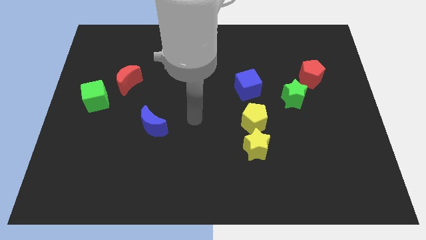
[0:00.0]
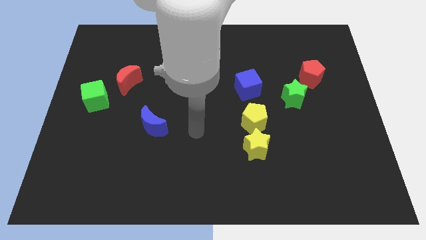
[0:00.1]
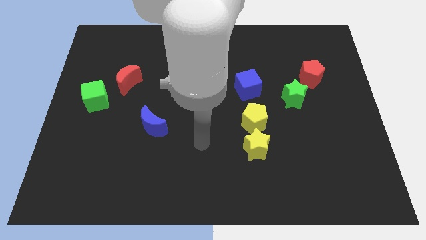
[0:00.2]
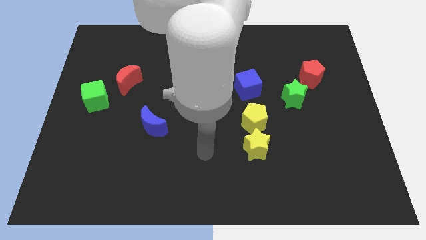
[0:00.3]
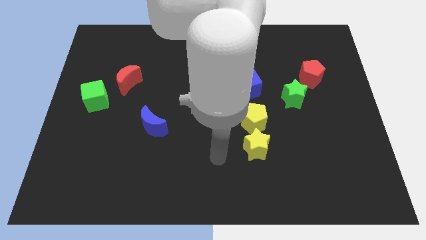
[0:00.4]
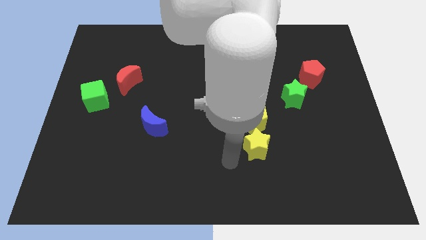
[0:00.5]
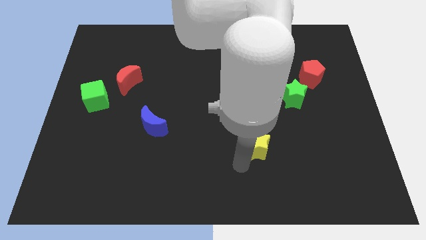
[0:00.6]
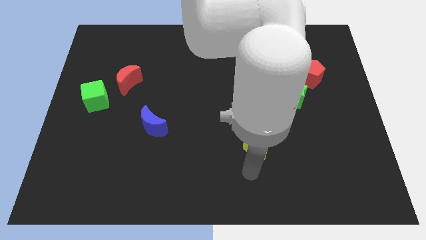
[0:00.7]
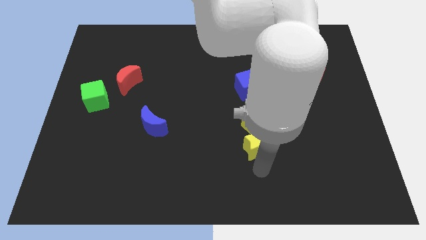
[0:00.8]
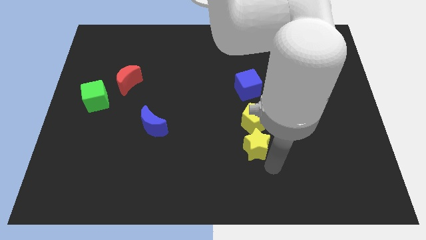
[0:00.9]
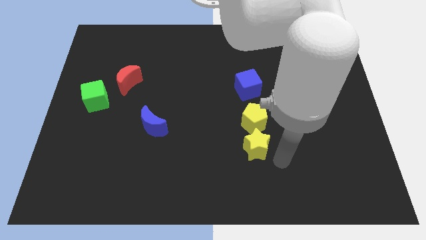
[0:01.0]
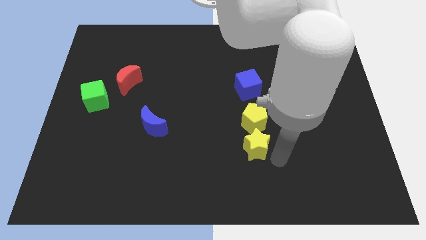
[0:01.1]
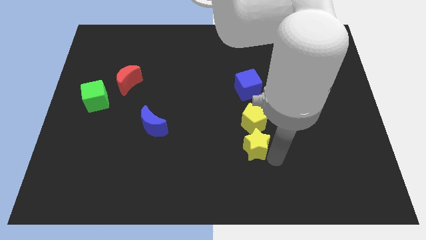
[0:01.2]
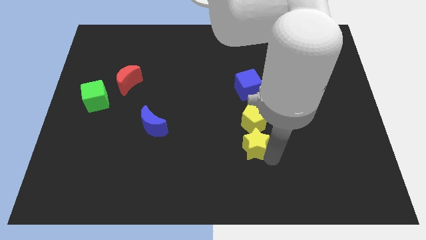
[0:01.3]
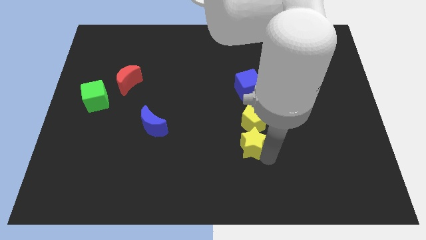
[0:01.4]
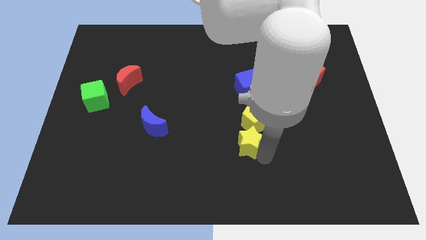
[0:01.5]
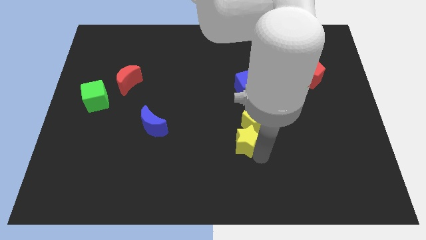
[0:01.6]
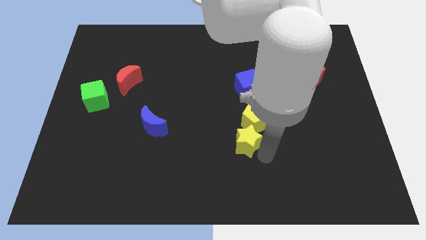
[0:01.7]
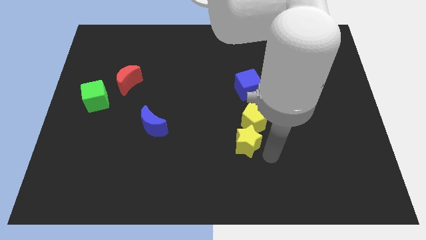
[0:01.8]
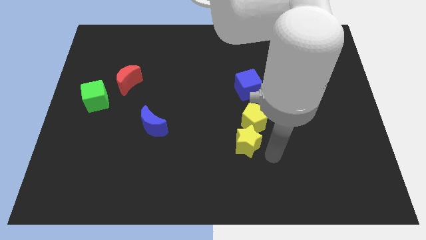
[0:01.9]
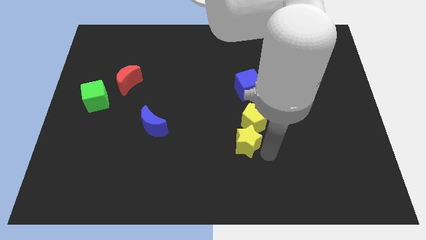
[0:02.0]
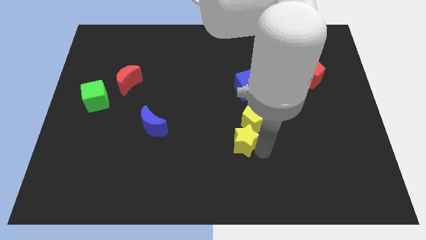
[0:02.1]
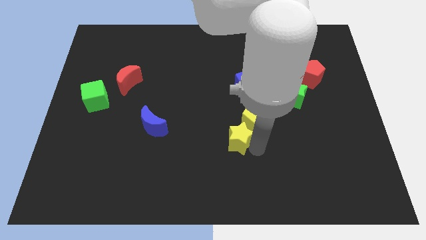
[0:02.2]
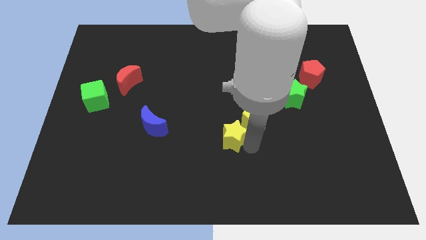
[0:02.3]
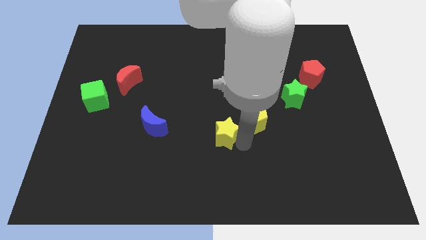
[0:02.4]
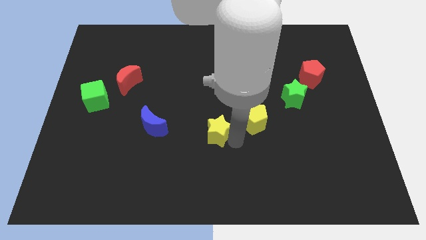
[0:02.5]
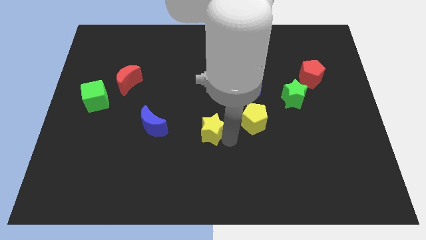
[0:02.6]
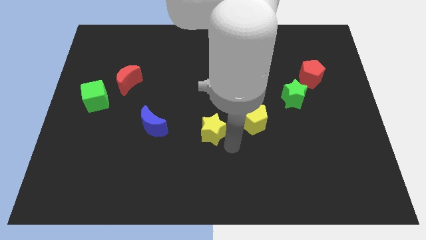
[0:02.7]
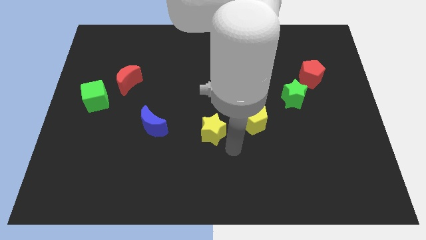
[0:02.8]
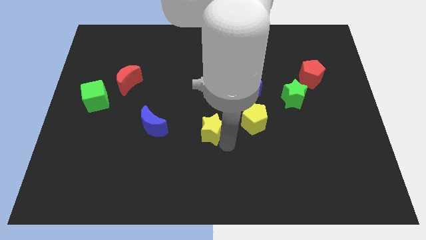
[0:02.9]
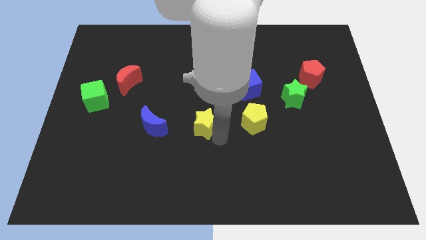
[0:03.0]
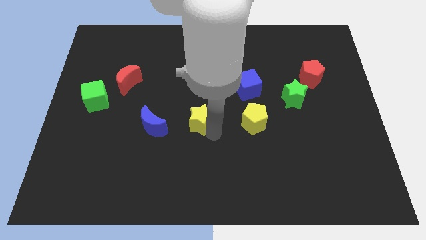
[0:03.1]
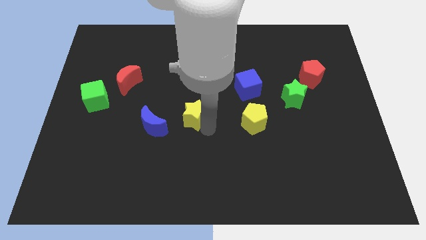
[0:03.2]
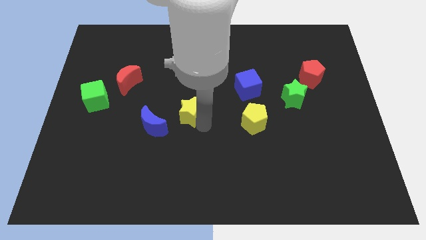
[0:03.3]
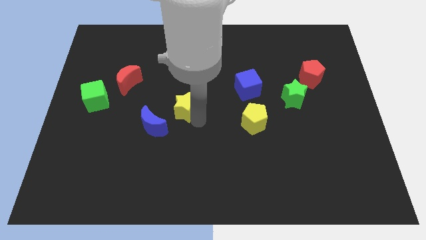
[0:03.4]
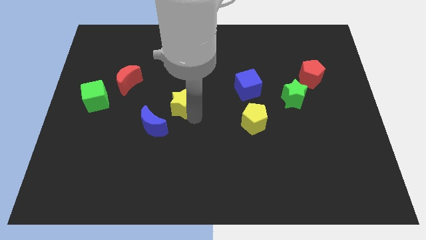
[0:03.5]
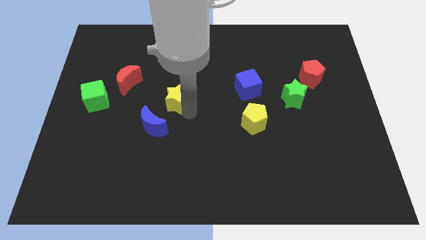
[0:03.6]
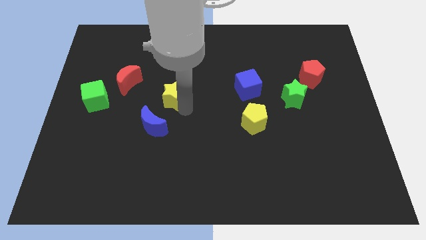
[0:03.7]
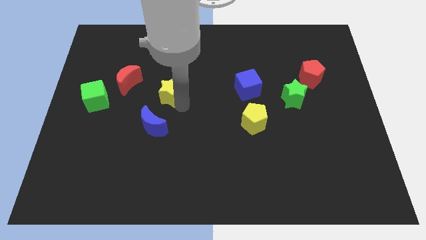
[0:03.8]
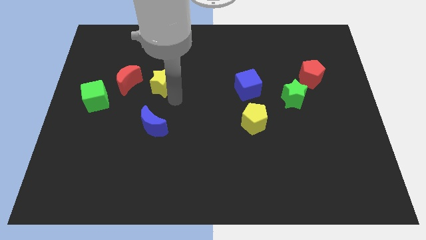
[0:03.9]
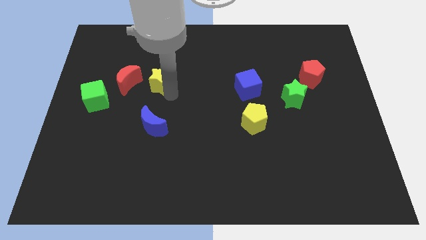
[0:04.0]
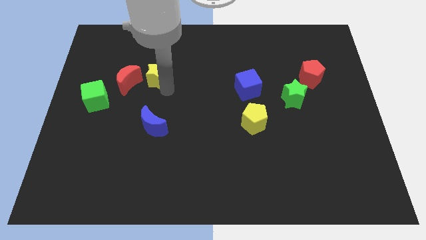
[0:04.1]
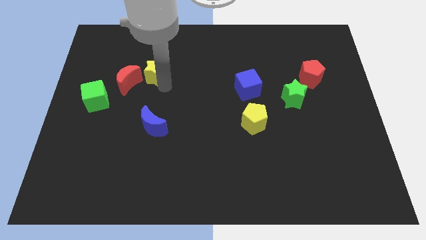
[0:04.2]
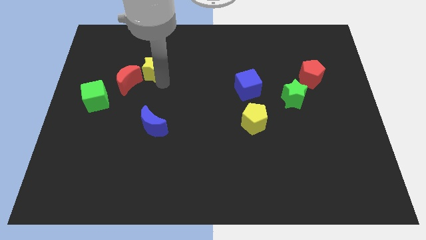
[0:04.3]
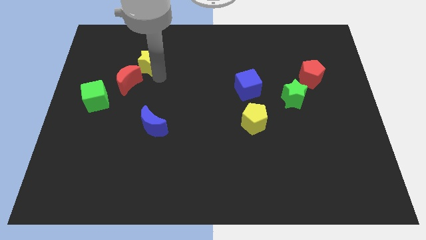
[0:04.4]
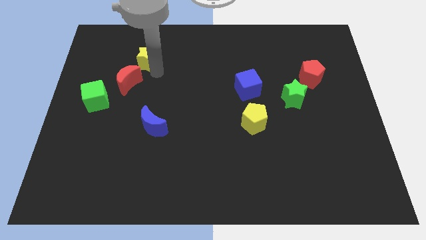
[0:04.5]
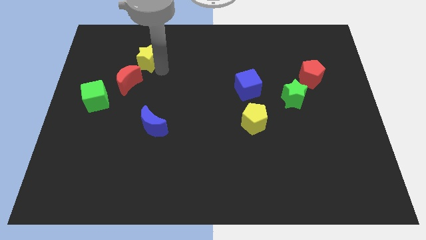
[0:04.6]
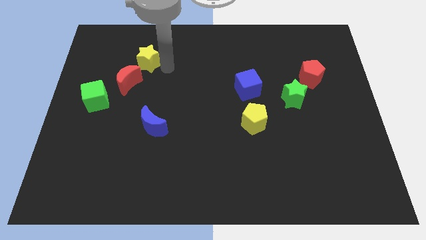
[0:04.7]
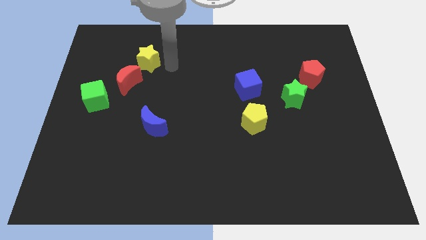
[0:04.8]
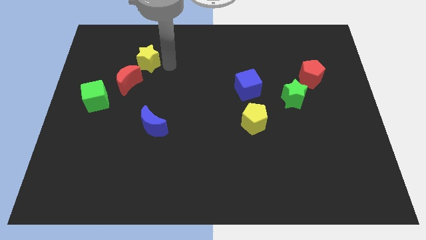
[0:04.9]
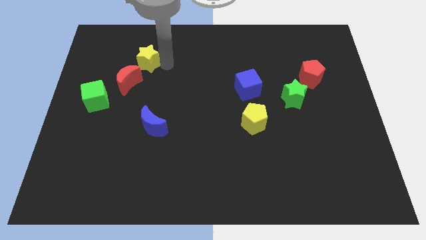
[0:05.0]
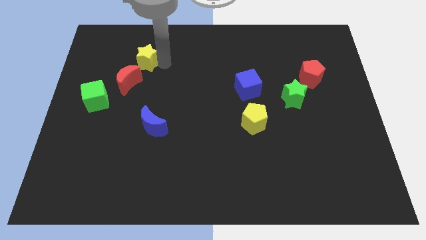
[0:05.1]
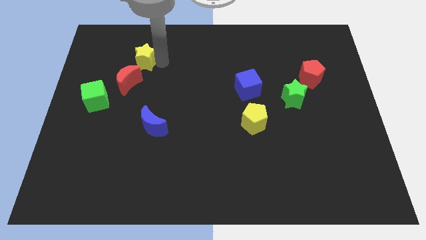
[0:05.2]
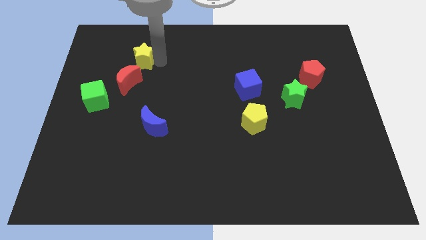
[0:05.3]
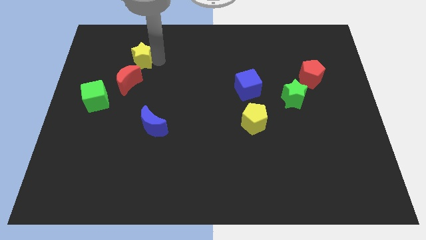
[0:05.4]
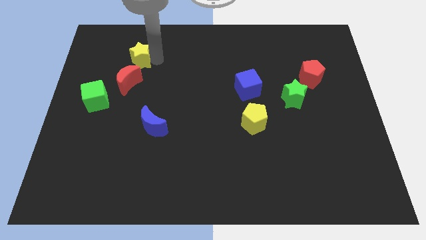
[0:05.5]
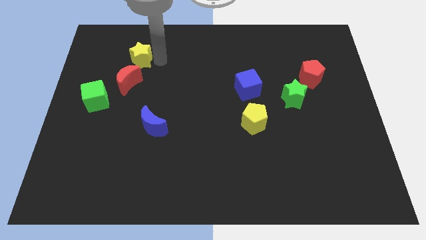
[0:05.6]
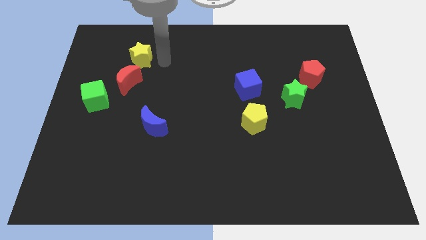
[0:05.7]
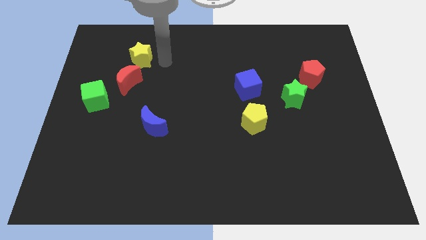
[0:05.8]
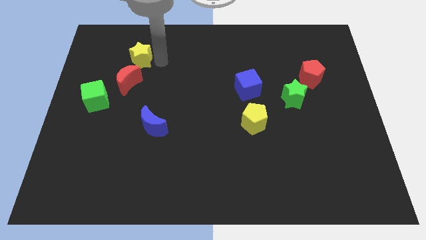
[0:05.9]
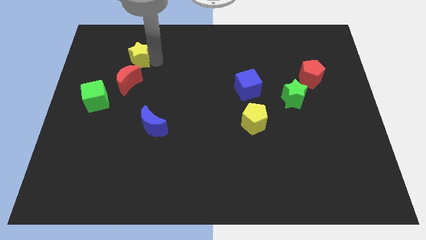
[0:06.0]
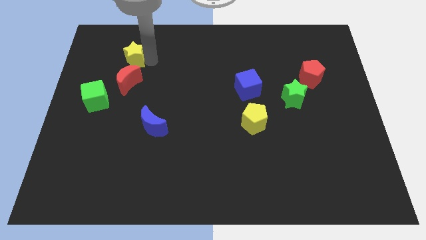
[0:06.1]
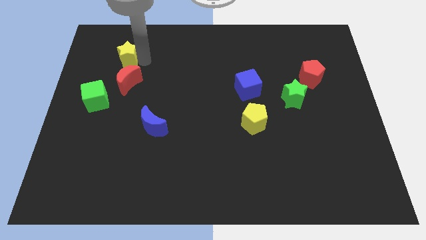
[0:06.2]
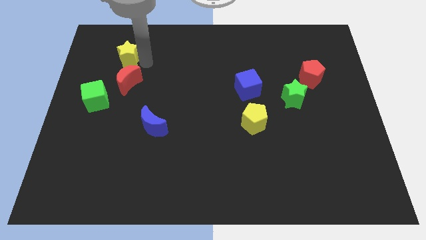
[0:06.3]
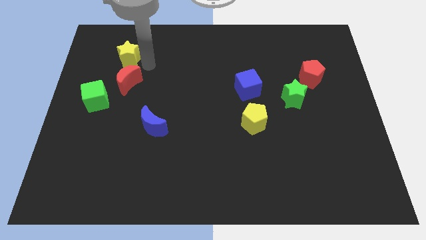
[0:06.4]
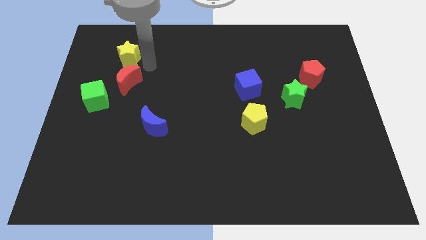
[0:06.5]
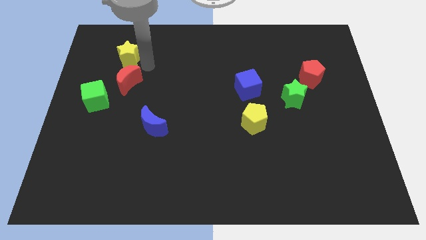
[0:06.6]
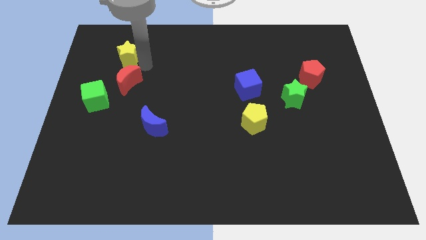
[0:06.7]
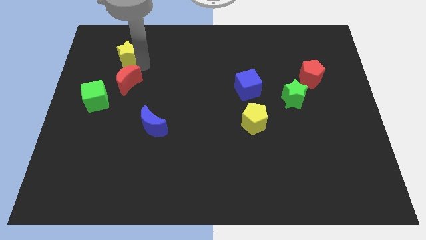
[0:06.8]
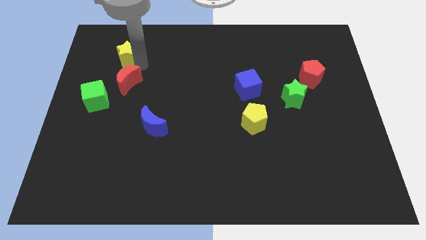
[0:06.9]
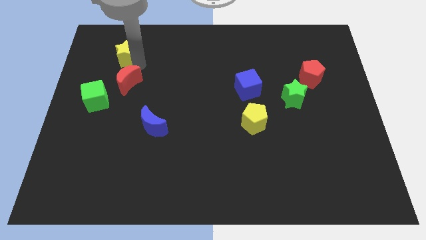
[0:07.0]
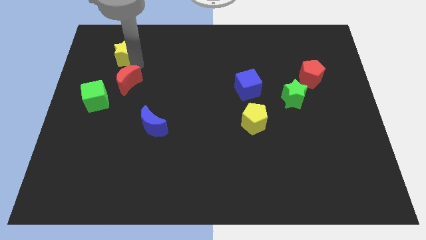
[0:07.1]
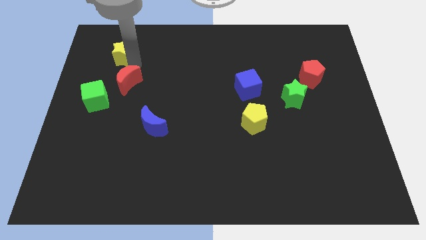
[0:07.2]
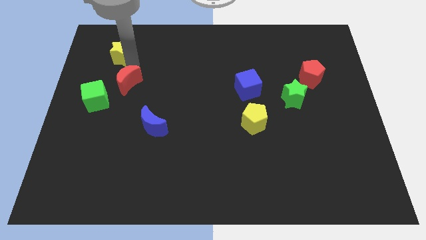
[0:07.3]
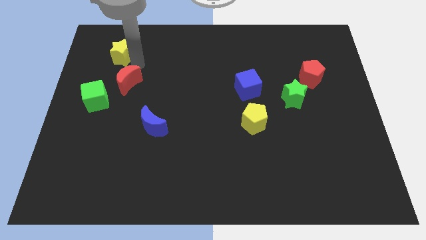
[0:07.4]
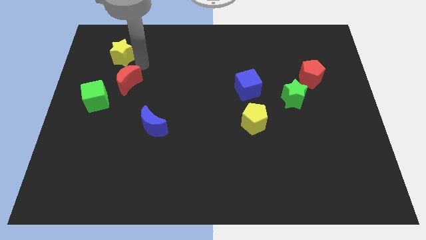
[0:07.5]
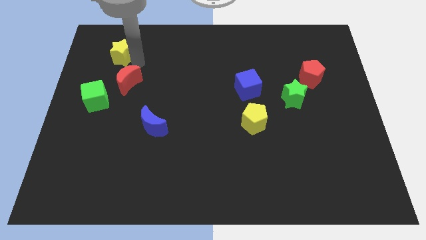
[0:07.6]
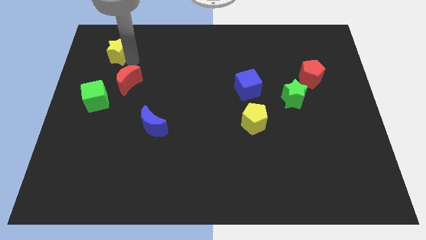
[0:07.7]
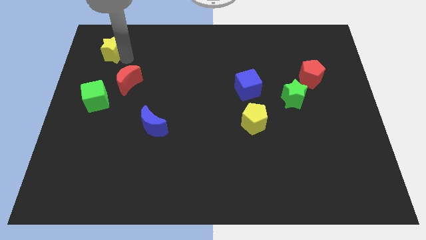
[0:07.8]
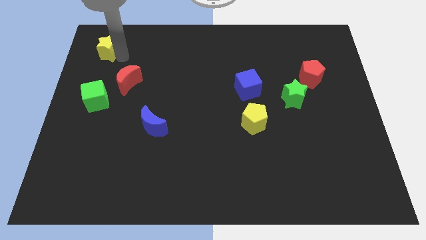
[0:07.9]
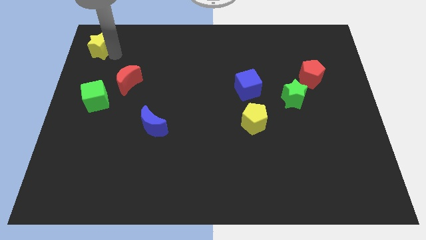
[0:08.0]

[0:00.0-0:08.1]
move the yellow star to the top left corner
